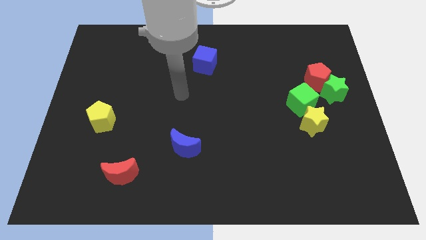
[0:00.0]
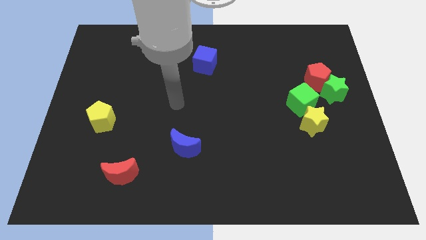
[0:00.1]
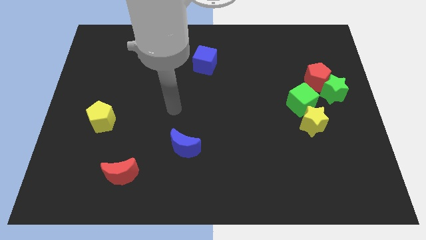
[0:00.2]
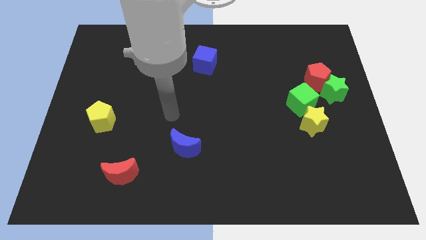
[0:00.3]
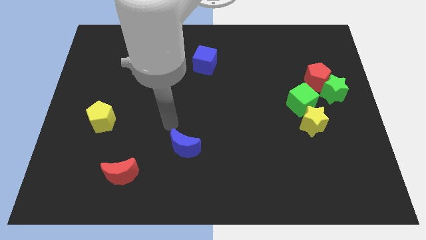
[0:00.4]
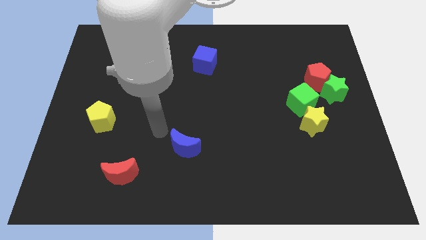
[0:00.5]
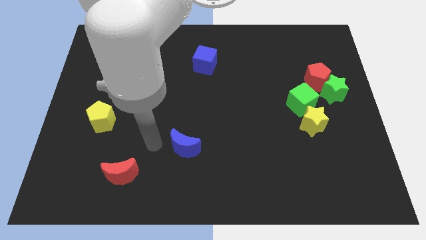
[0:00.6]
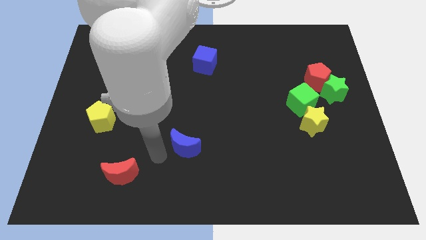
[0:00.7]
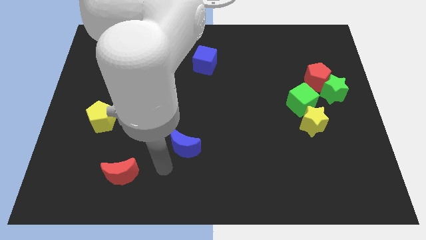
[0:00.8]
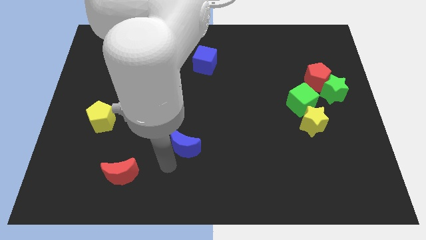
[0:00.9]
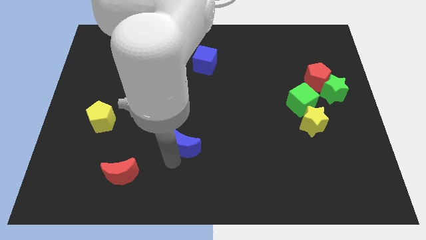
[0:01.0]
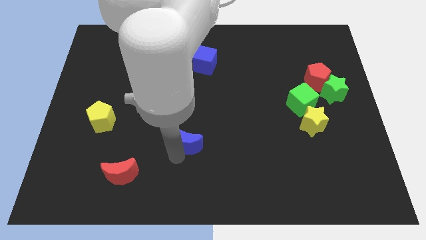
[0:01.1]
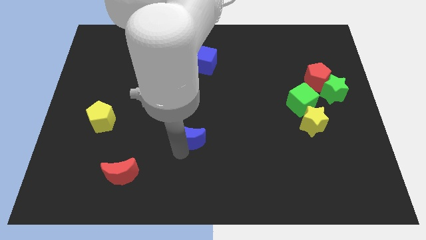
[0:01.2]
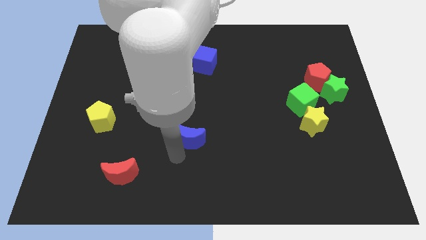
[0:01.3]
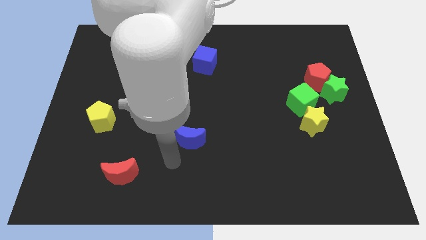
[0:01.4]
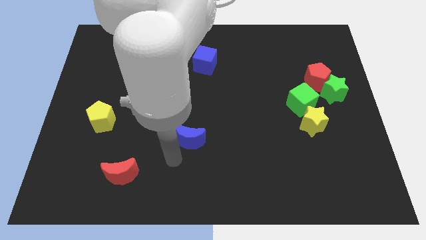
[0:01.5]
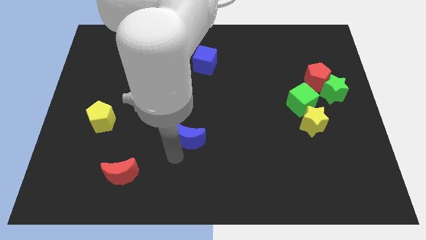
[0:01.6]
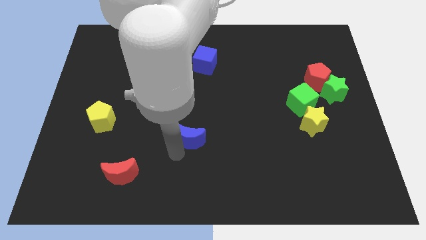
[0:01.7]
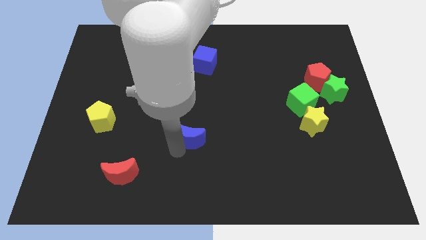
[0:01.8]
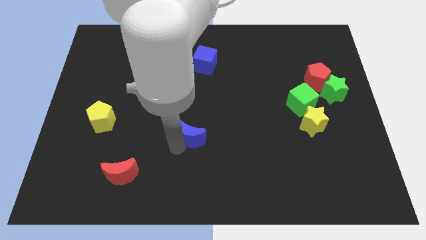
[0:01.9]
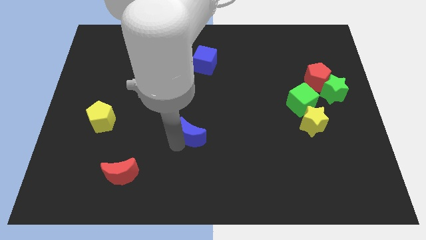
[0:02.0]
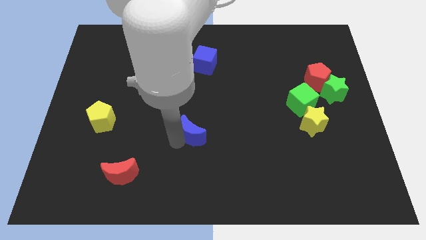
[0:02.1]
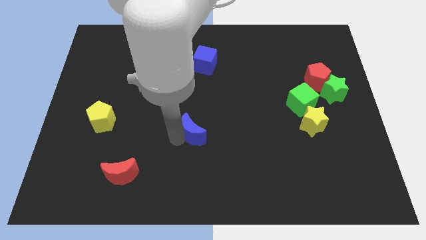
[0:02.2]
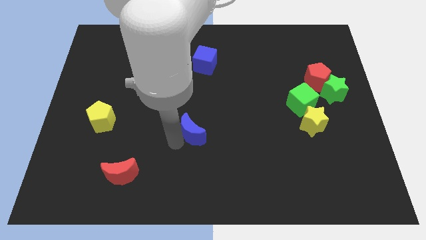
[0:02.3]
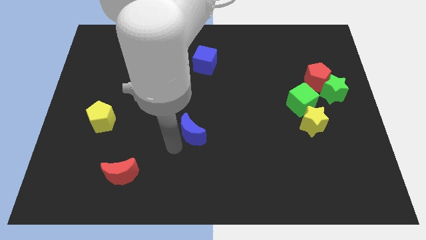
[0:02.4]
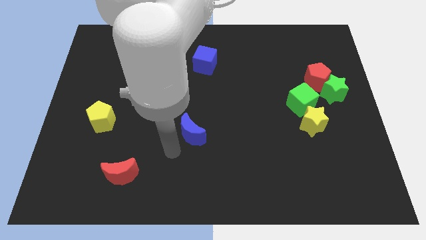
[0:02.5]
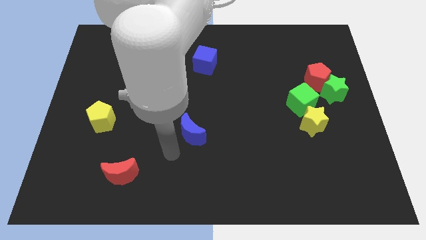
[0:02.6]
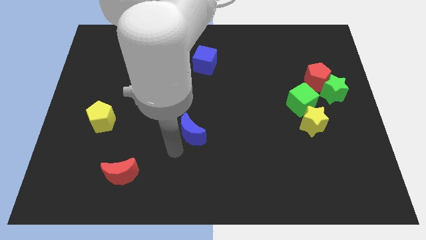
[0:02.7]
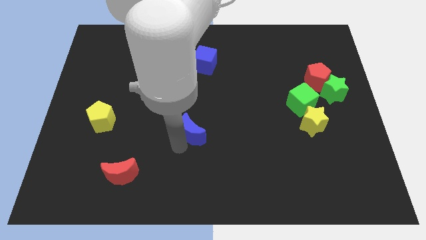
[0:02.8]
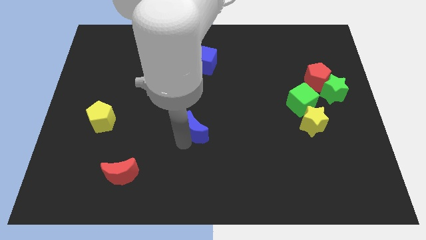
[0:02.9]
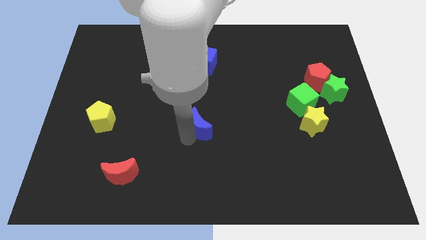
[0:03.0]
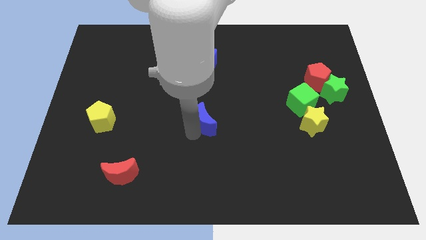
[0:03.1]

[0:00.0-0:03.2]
move the blue moon diagonally up and to the right a little

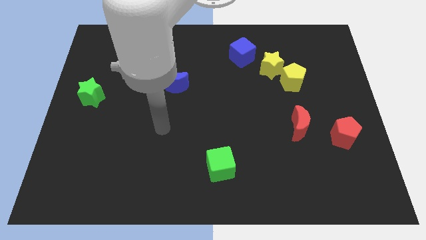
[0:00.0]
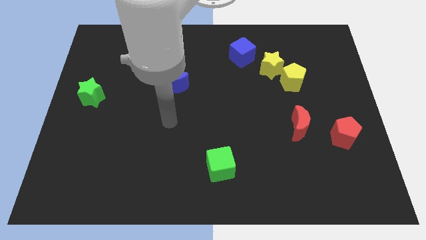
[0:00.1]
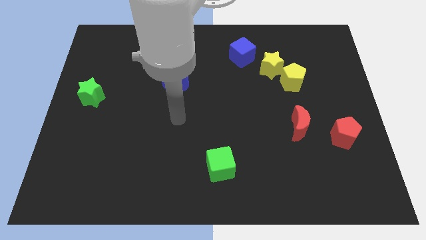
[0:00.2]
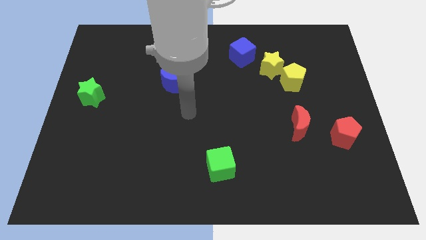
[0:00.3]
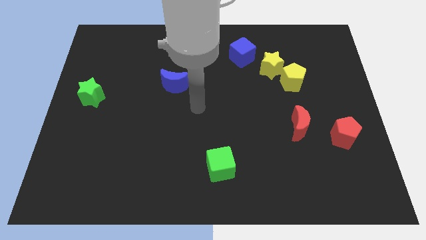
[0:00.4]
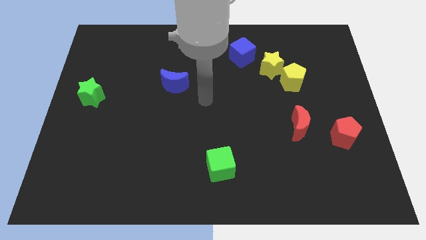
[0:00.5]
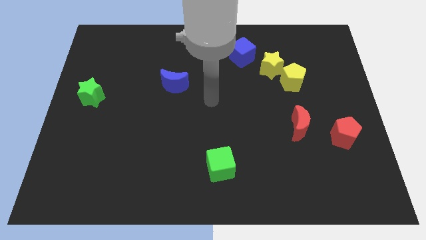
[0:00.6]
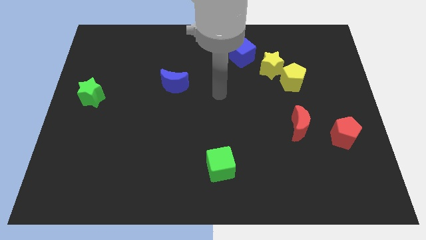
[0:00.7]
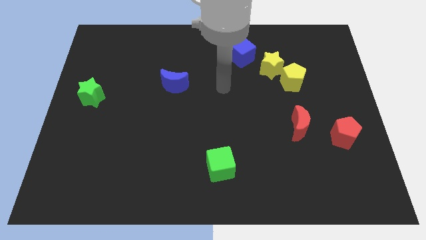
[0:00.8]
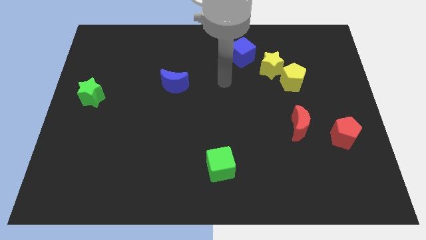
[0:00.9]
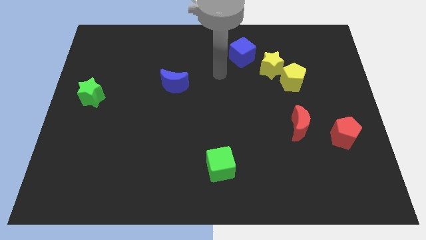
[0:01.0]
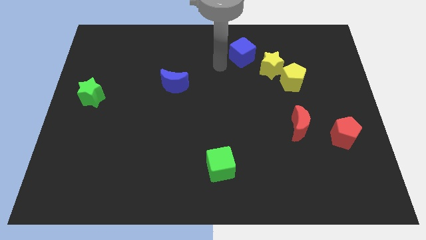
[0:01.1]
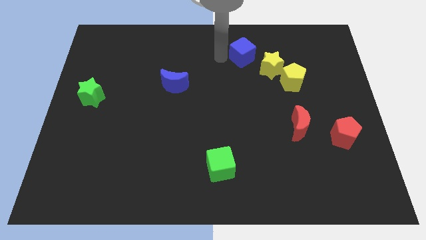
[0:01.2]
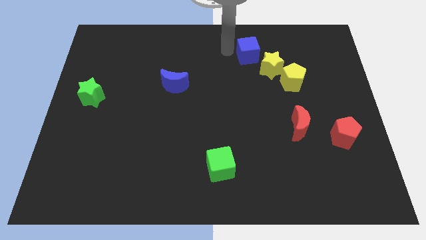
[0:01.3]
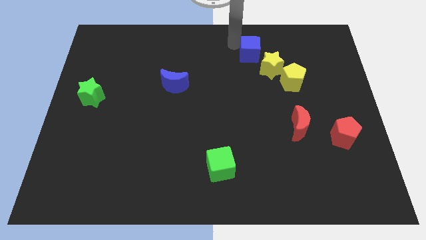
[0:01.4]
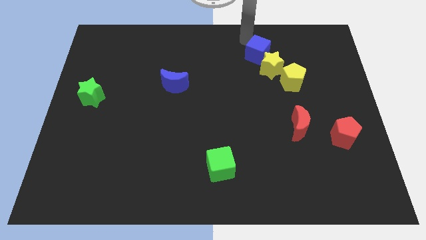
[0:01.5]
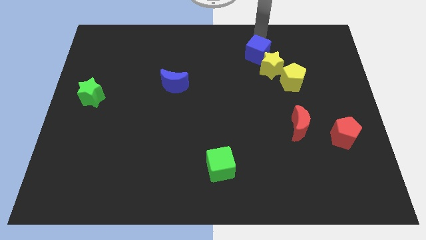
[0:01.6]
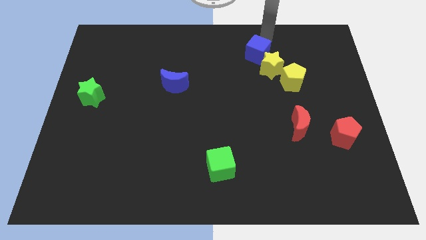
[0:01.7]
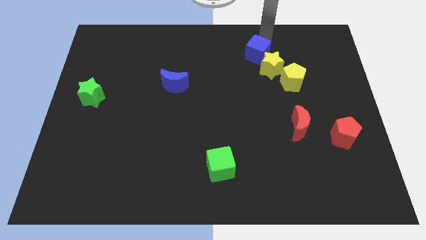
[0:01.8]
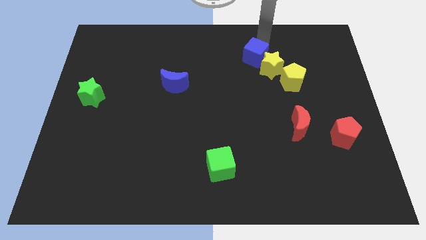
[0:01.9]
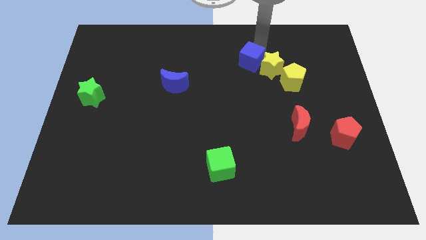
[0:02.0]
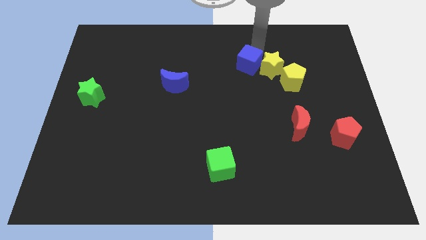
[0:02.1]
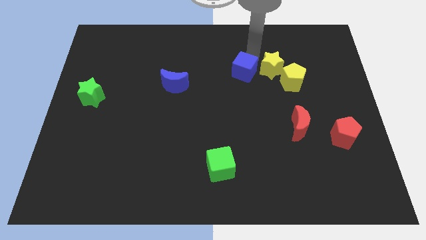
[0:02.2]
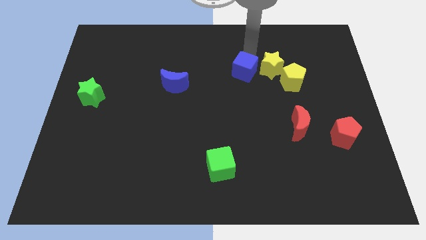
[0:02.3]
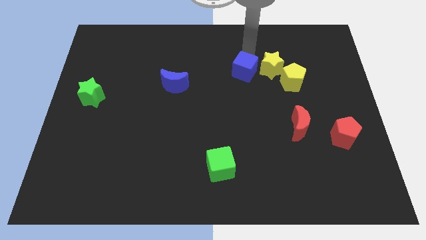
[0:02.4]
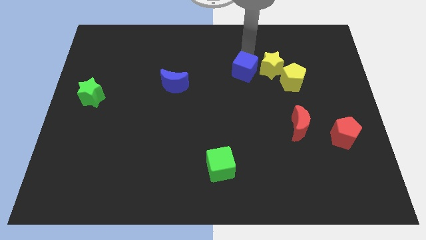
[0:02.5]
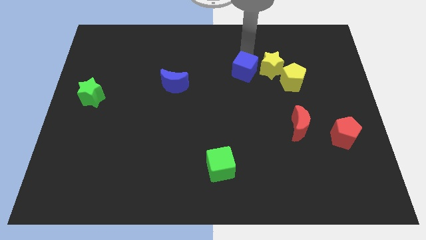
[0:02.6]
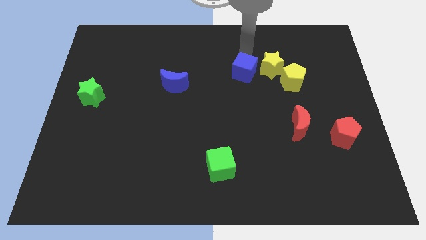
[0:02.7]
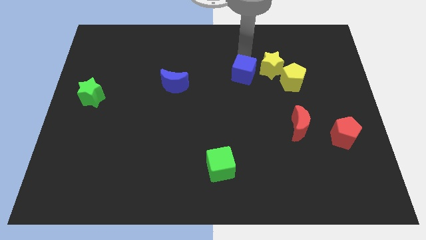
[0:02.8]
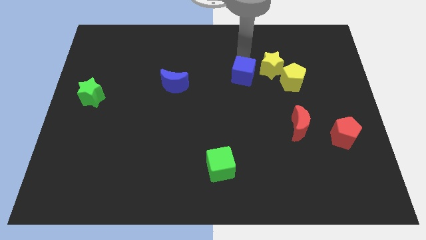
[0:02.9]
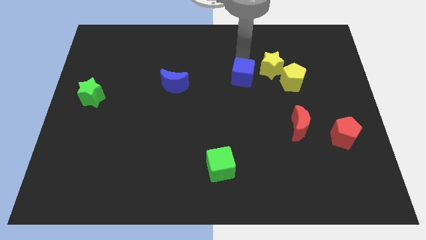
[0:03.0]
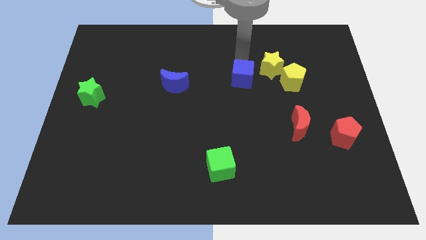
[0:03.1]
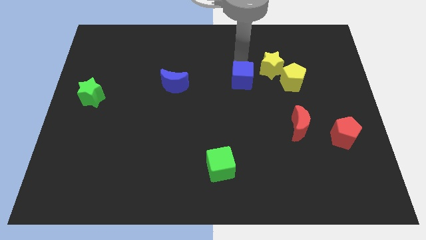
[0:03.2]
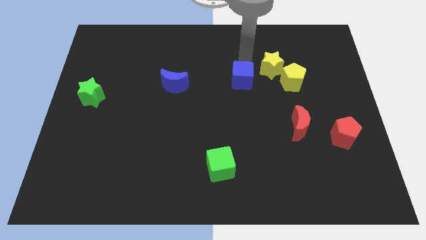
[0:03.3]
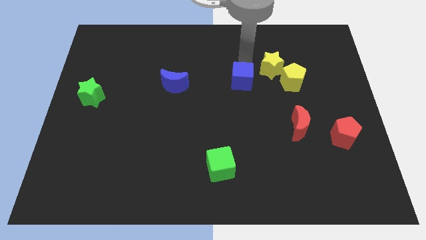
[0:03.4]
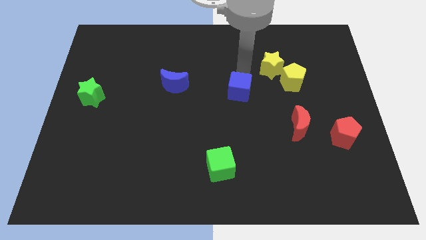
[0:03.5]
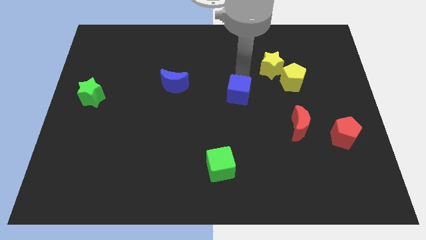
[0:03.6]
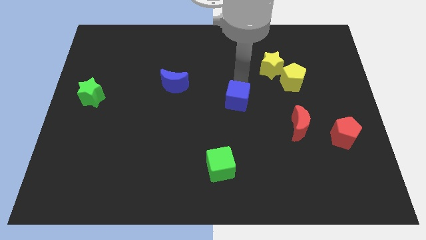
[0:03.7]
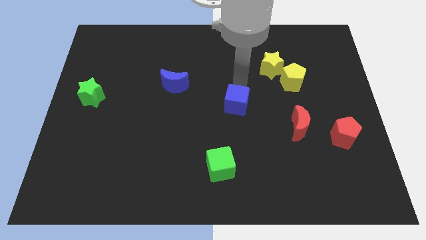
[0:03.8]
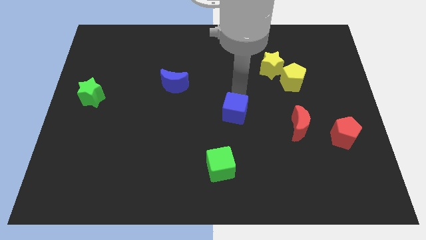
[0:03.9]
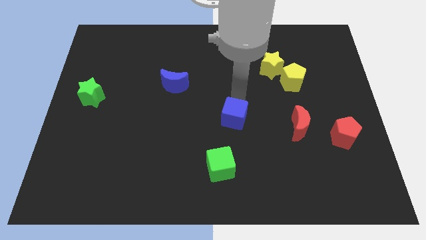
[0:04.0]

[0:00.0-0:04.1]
move the blue cube down

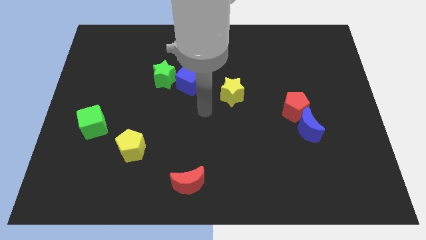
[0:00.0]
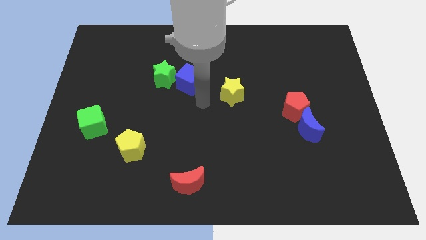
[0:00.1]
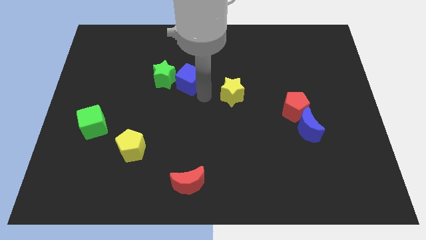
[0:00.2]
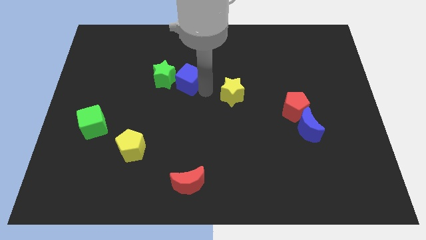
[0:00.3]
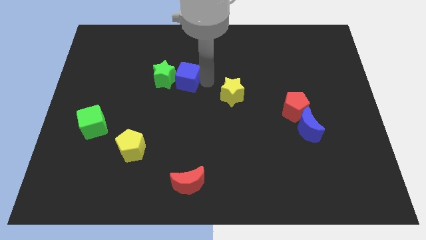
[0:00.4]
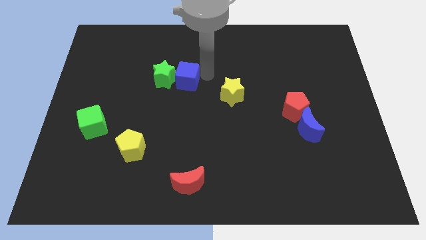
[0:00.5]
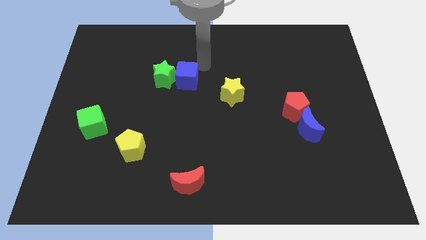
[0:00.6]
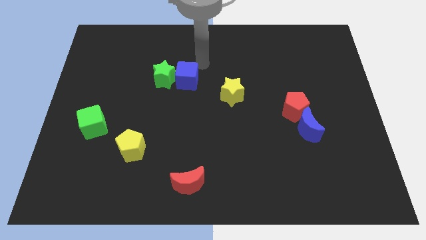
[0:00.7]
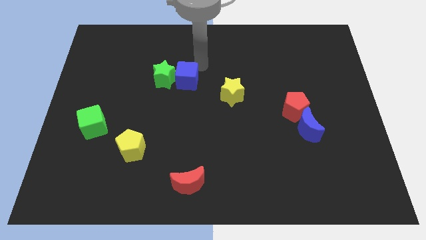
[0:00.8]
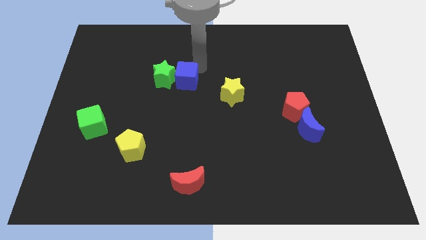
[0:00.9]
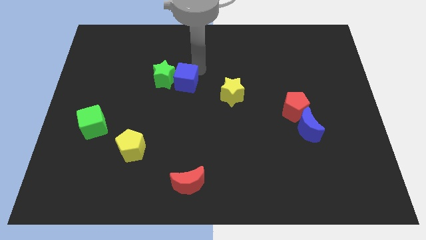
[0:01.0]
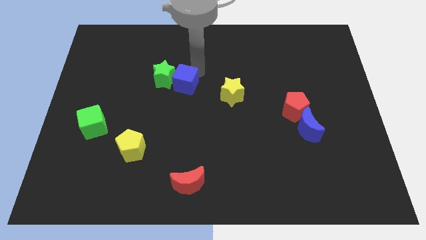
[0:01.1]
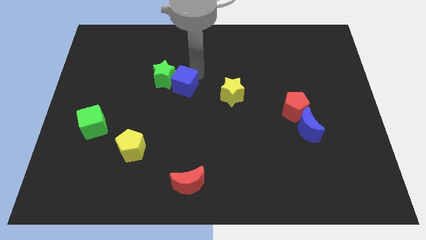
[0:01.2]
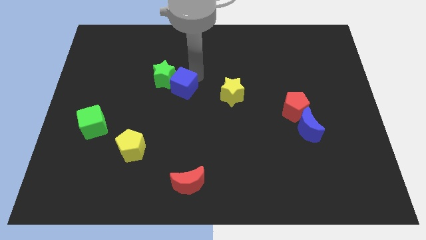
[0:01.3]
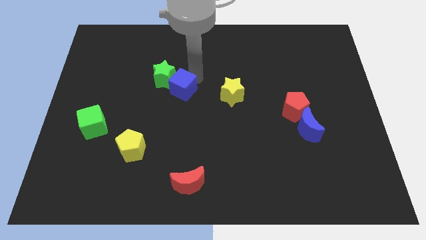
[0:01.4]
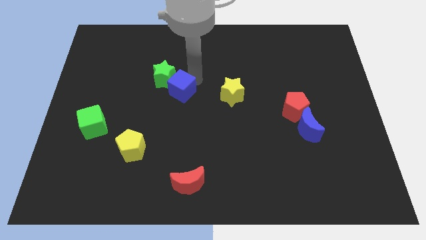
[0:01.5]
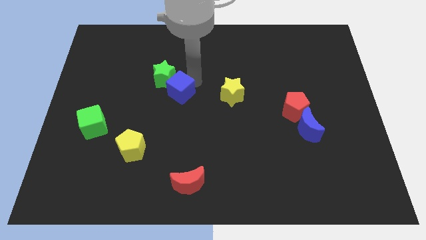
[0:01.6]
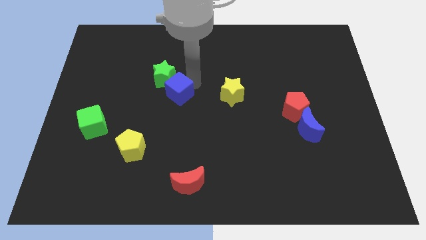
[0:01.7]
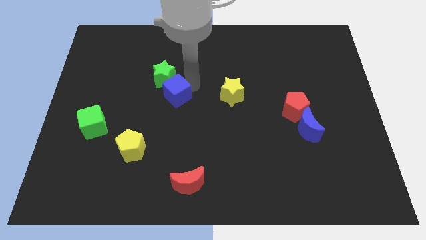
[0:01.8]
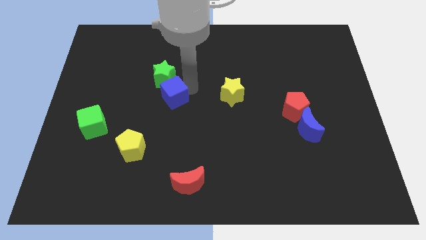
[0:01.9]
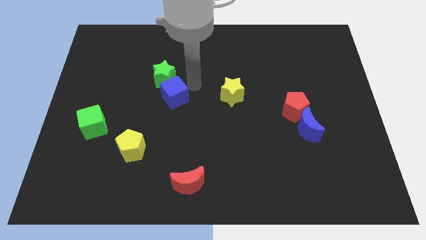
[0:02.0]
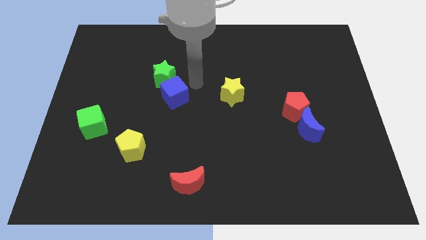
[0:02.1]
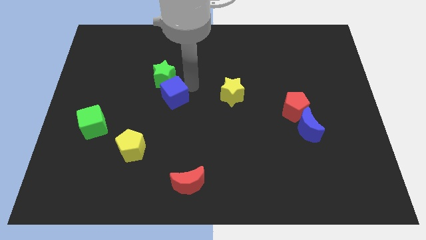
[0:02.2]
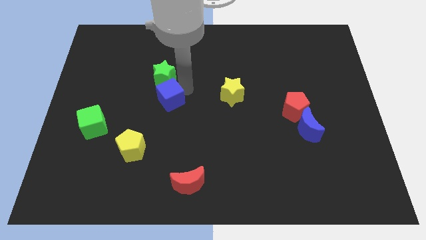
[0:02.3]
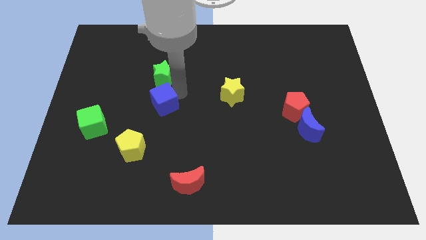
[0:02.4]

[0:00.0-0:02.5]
move the blue cube down and left diagonally slightly
